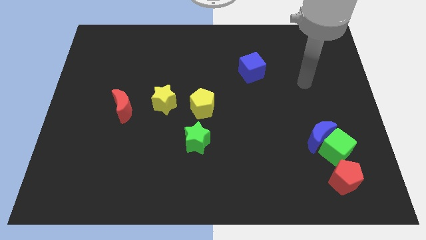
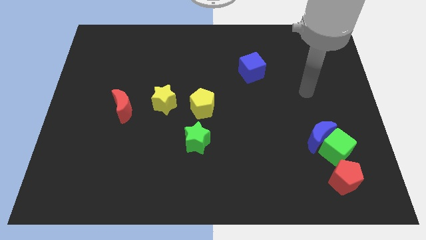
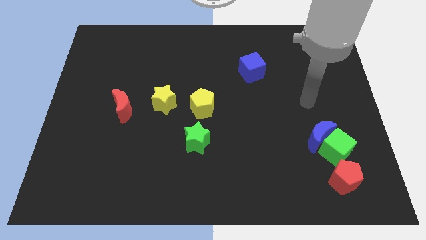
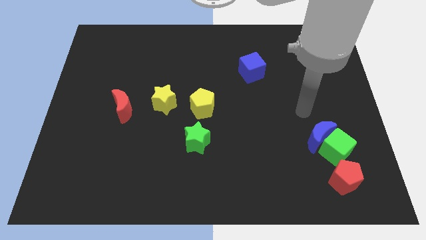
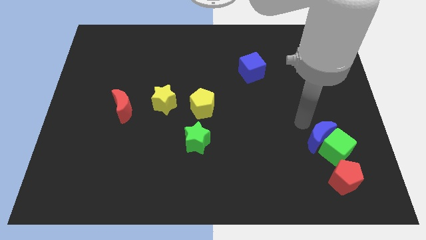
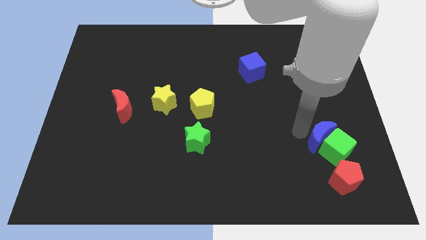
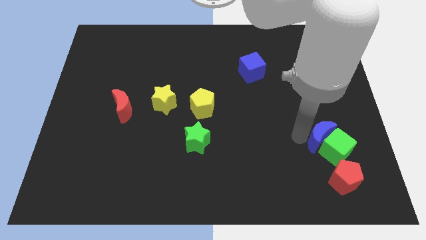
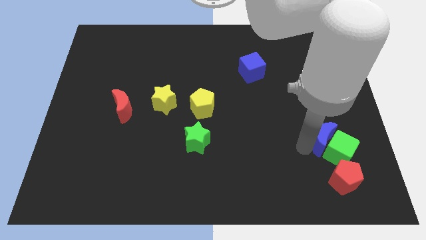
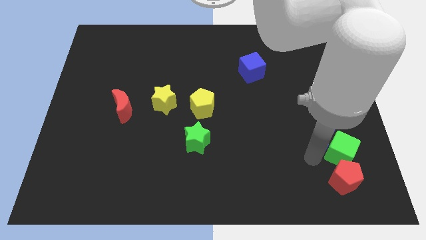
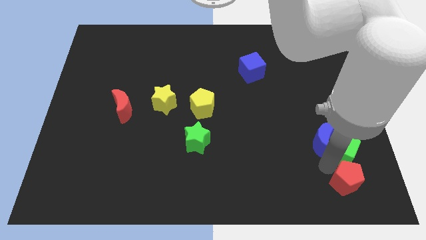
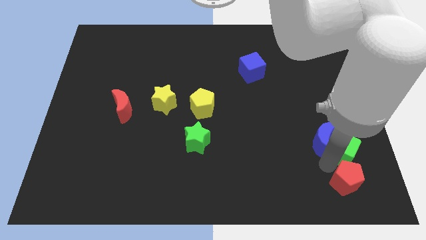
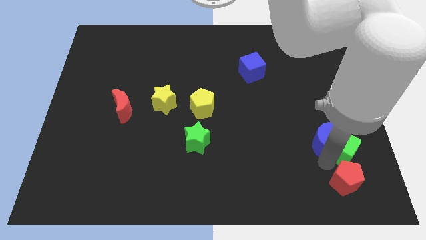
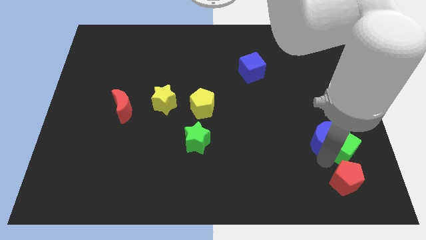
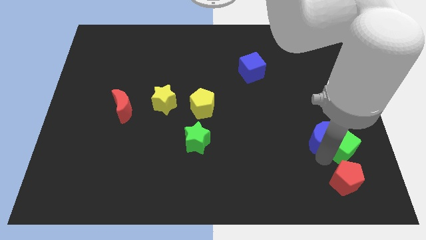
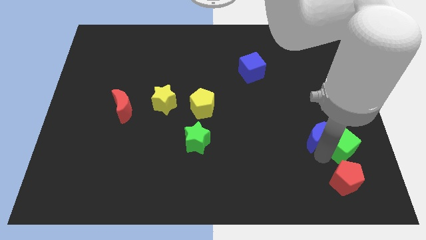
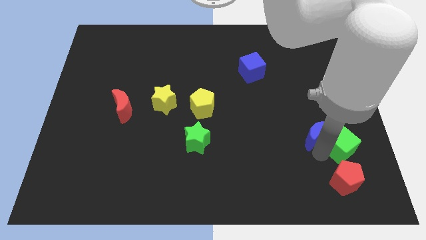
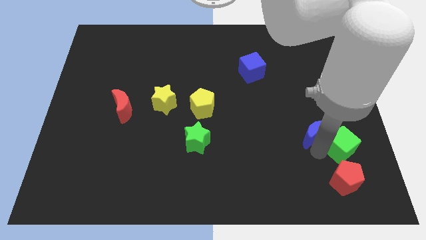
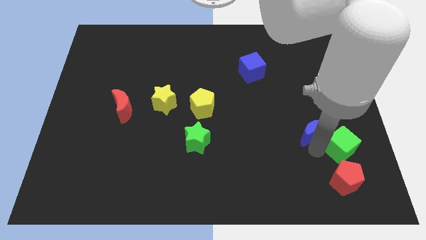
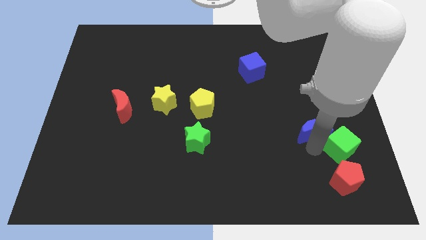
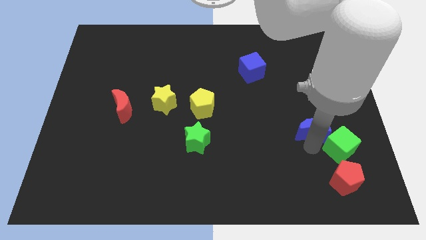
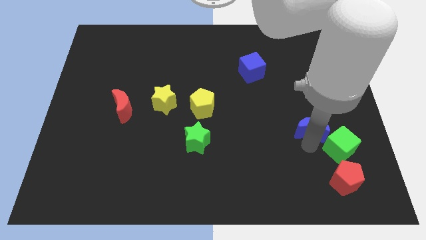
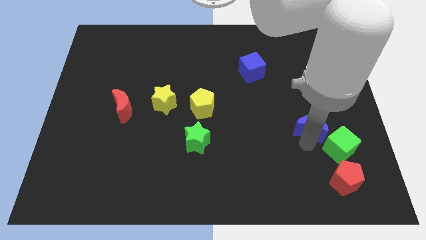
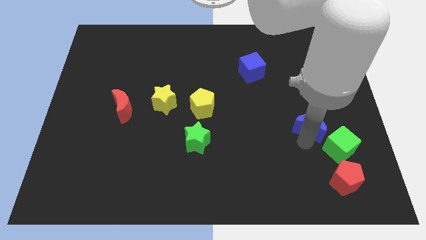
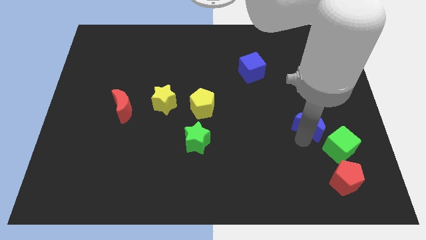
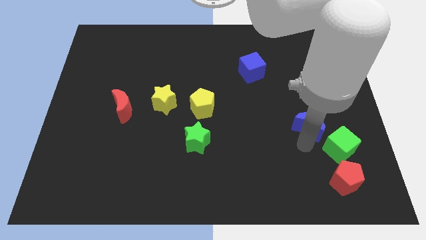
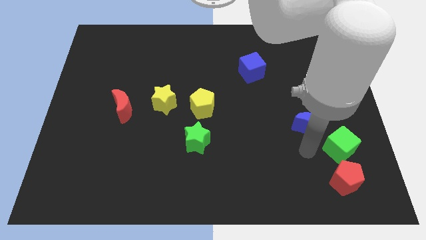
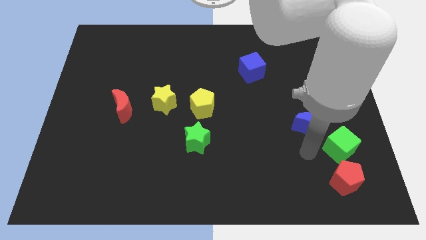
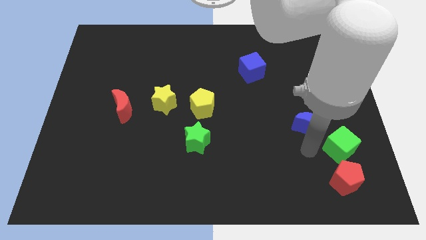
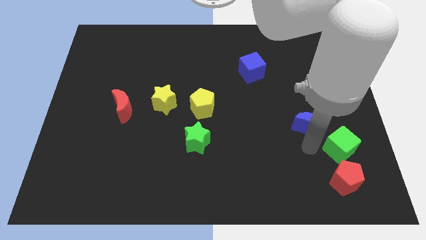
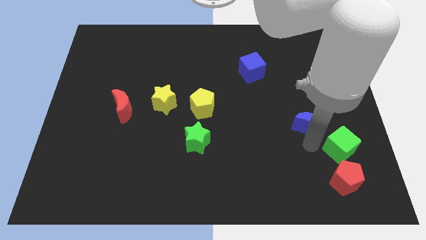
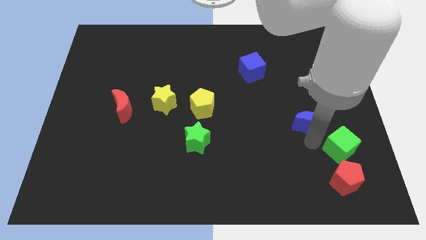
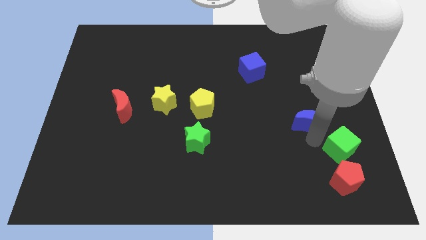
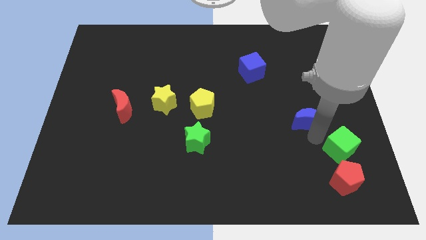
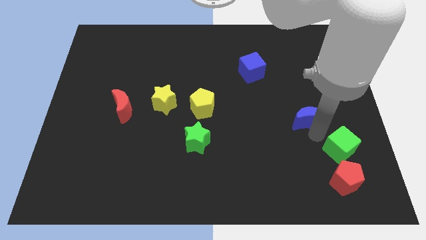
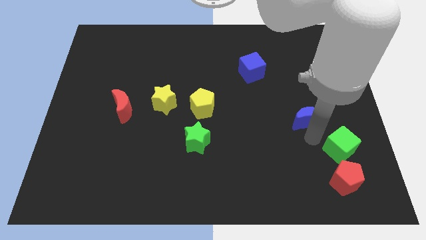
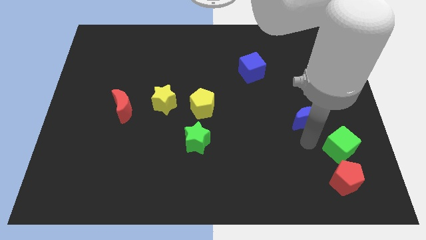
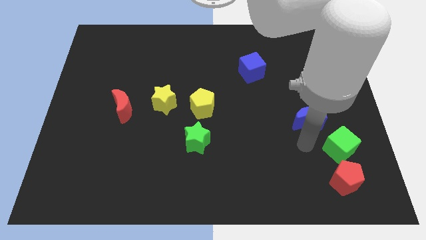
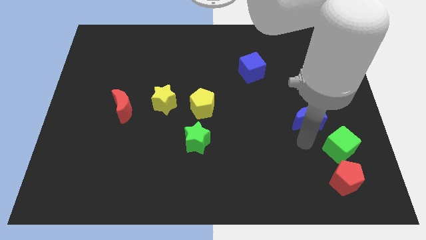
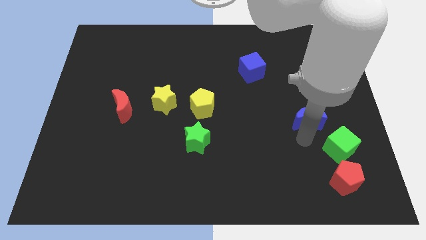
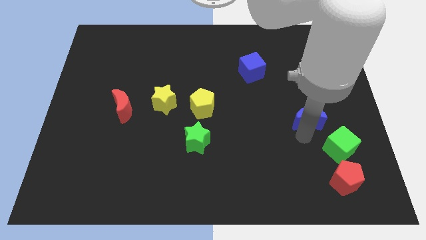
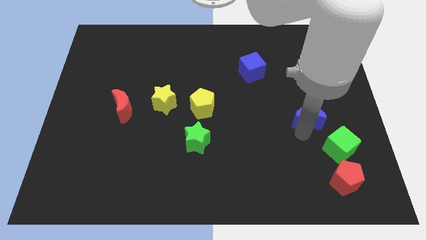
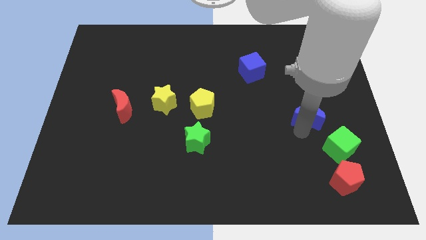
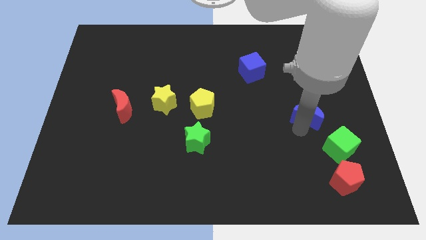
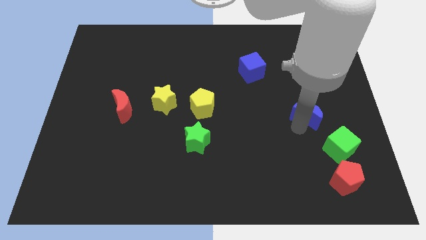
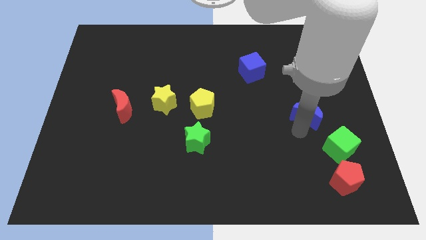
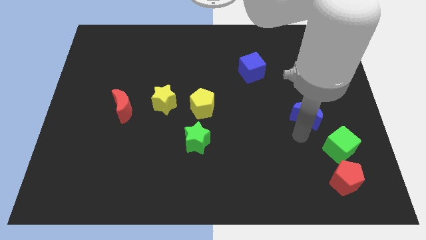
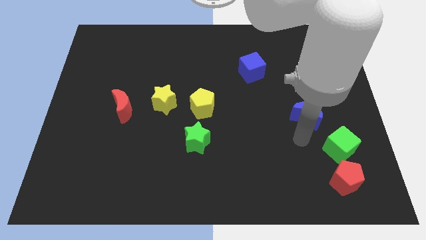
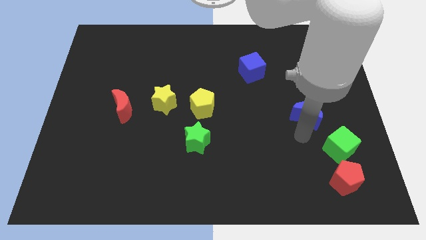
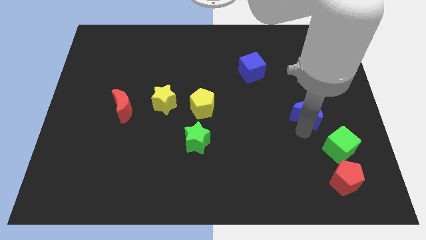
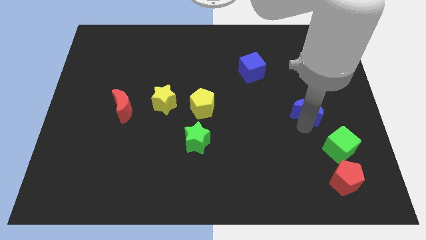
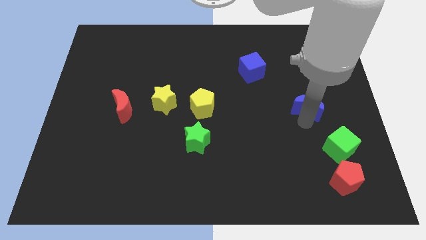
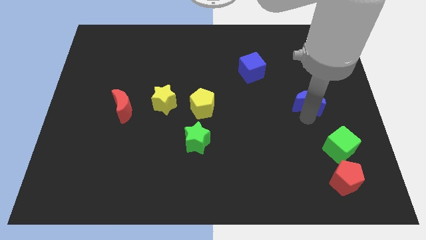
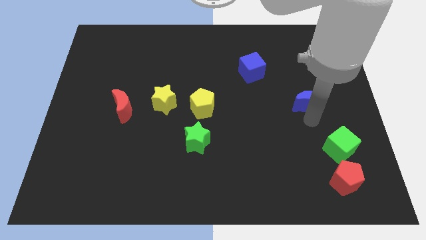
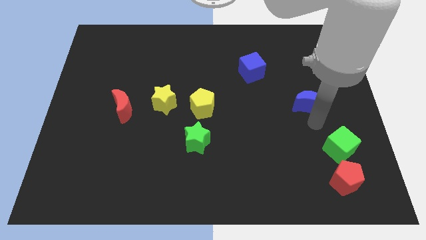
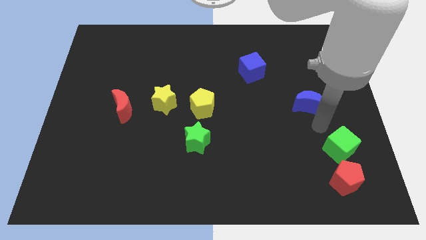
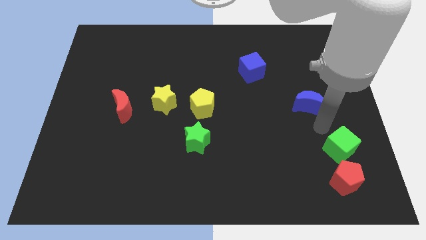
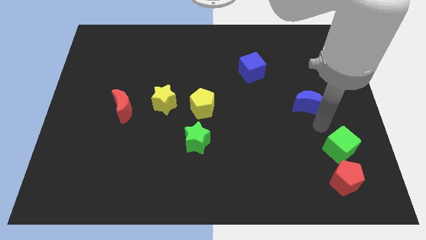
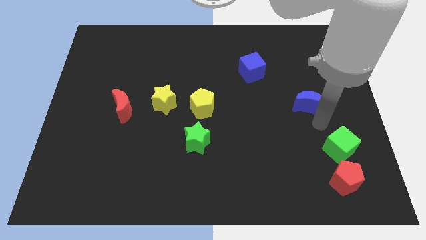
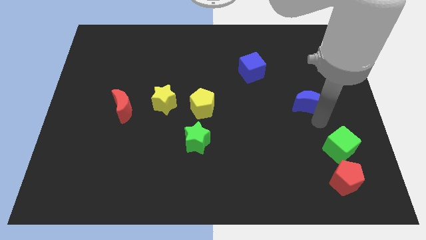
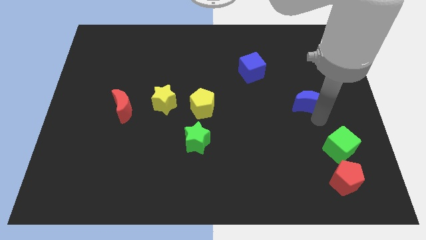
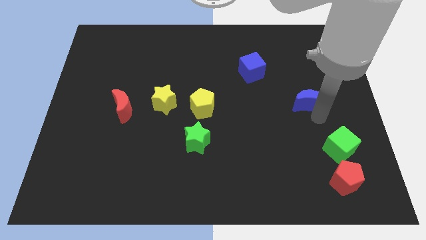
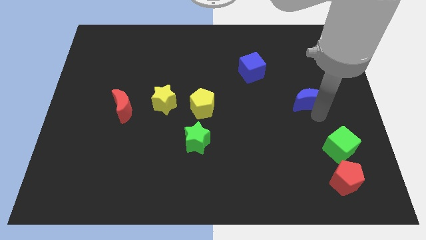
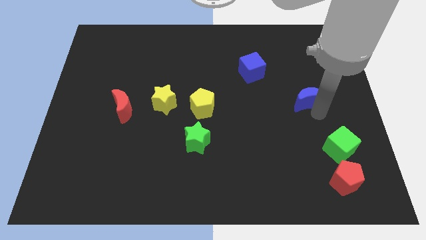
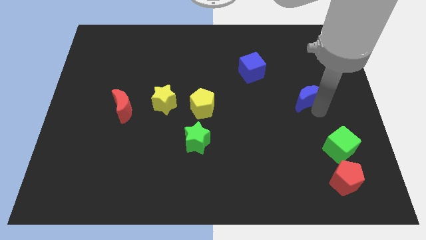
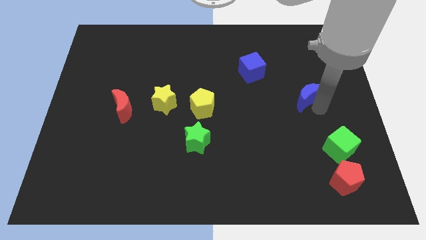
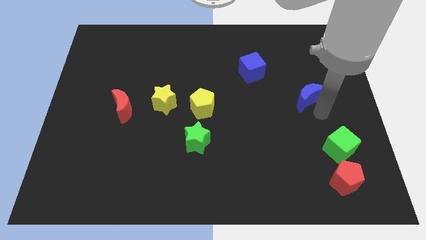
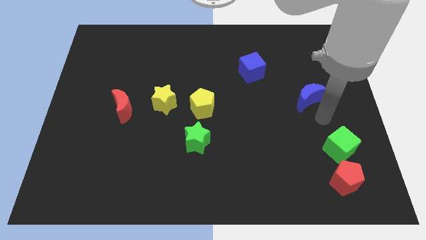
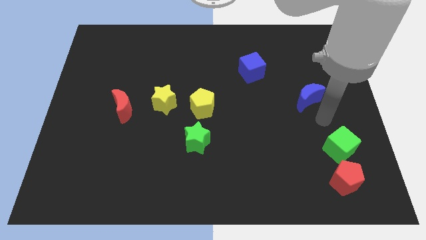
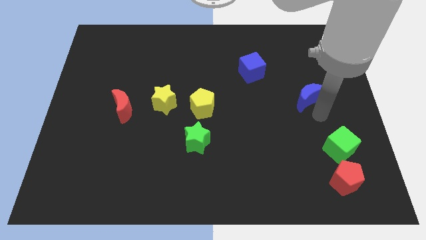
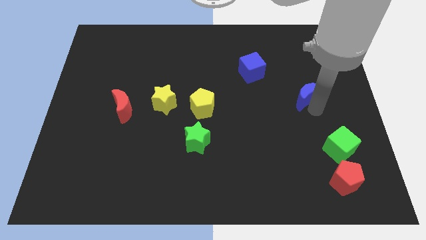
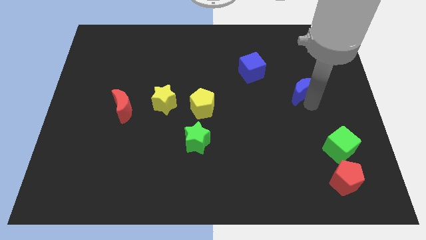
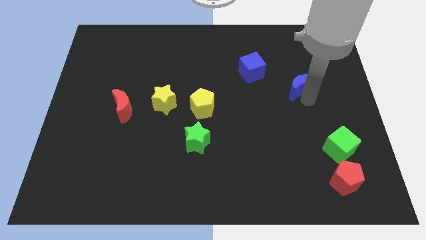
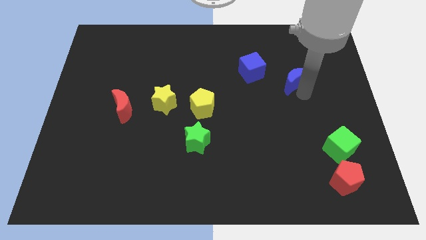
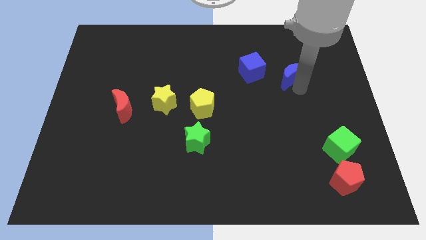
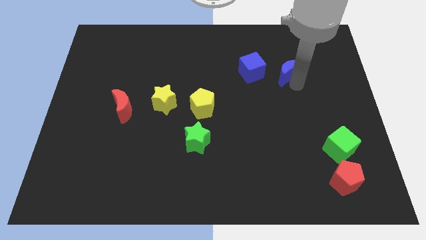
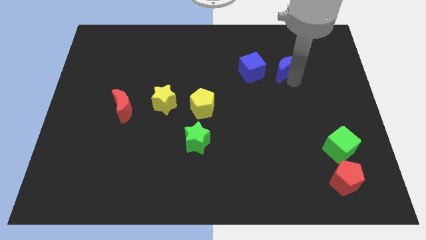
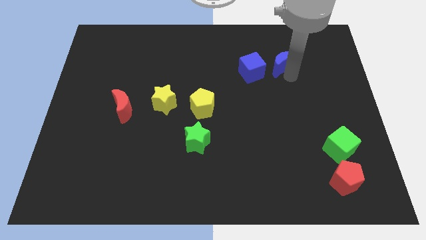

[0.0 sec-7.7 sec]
move the blue moon to the top right of the blue cube
